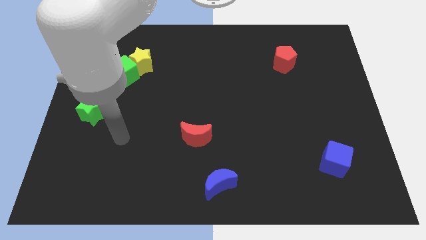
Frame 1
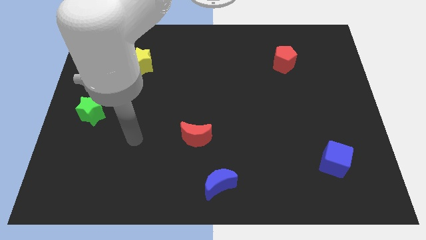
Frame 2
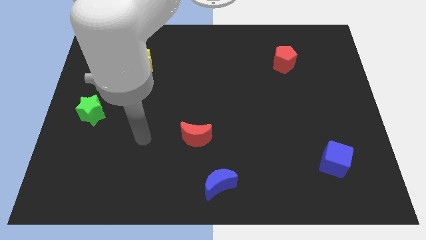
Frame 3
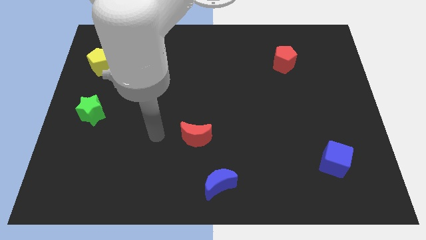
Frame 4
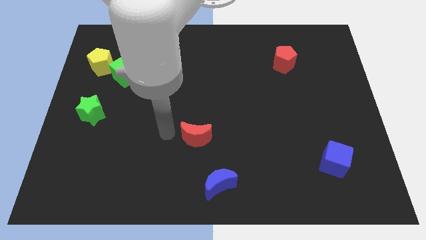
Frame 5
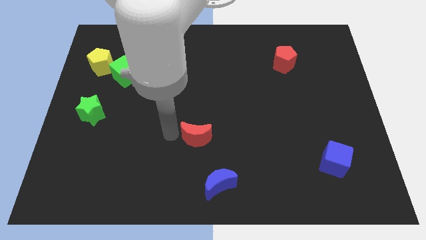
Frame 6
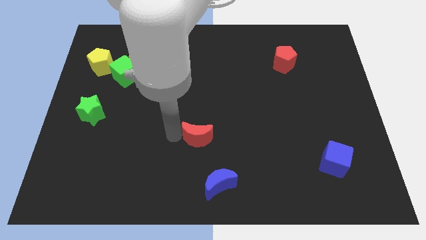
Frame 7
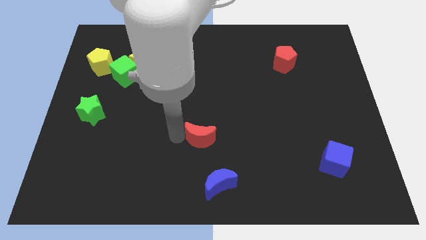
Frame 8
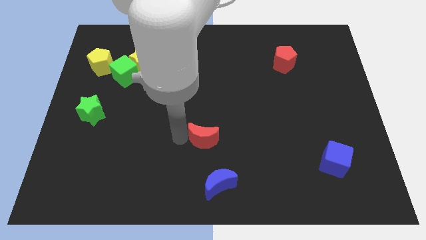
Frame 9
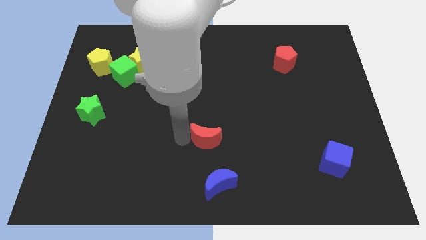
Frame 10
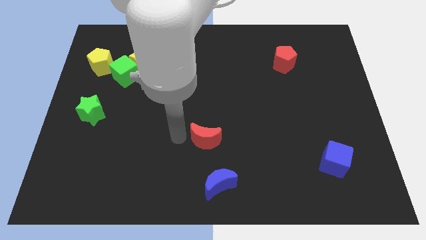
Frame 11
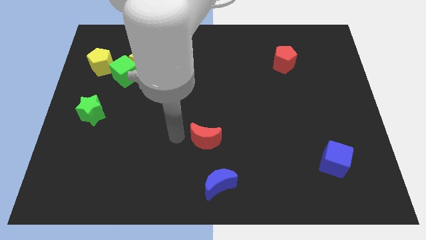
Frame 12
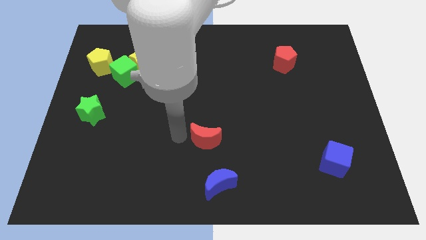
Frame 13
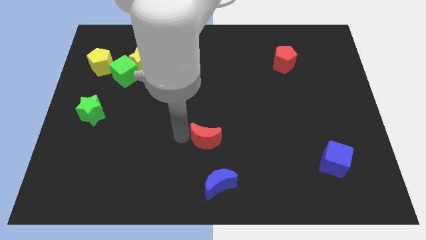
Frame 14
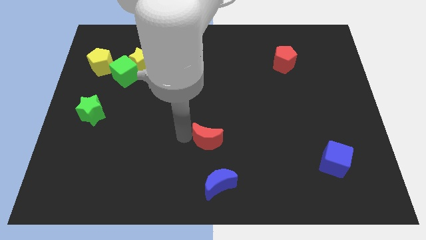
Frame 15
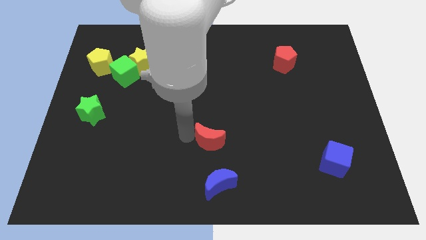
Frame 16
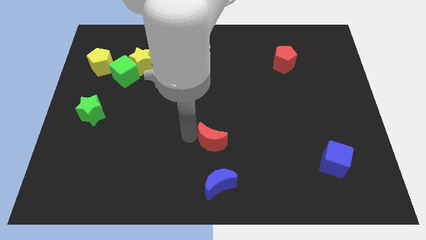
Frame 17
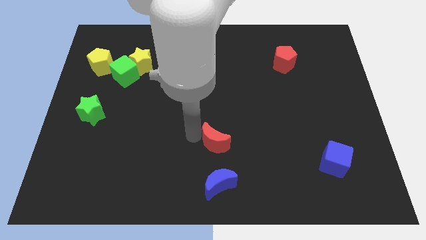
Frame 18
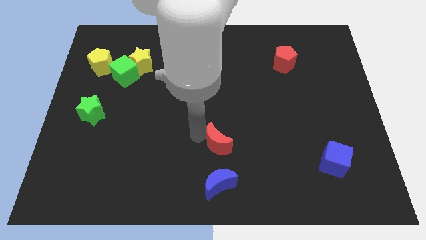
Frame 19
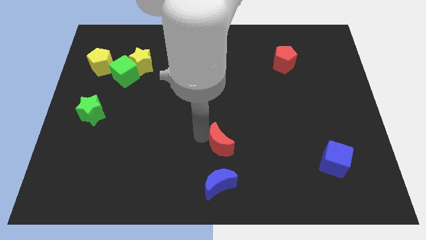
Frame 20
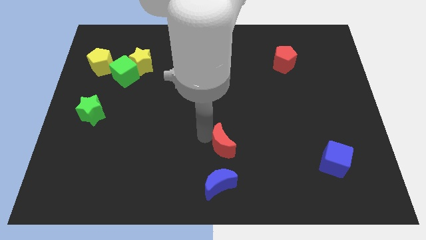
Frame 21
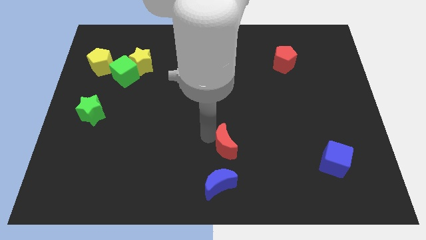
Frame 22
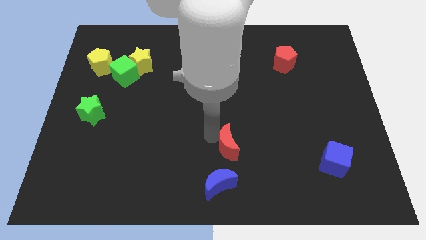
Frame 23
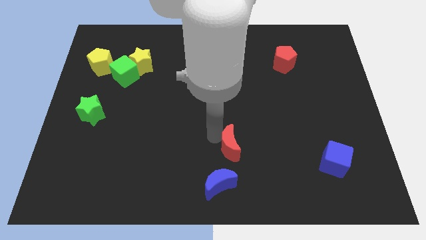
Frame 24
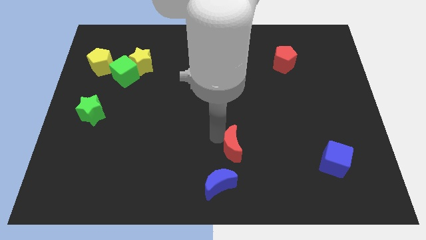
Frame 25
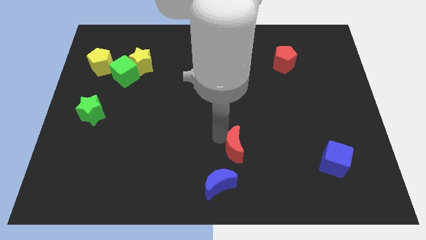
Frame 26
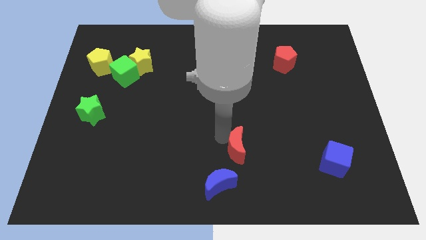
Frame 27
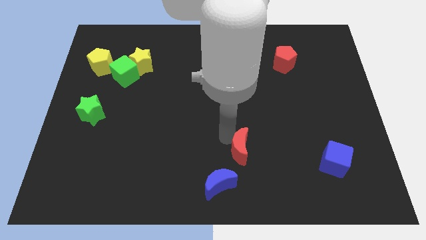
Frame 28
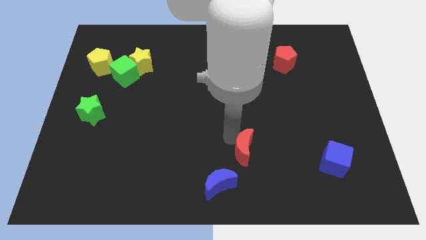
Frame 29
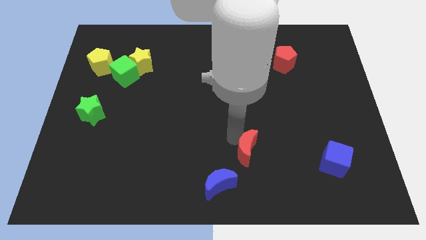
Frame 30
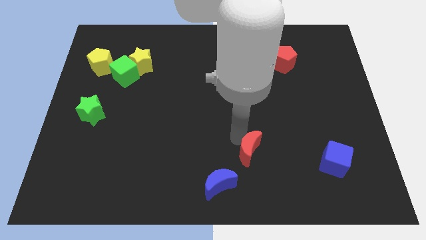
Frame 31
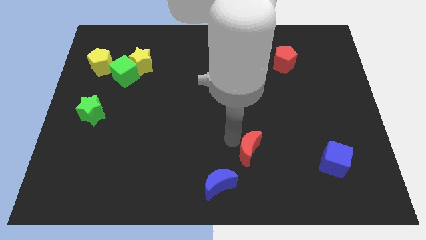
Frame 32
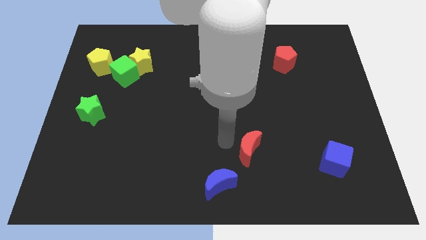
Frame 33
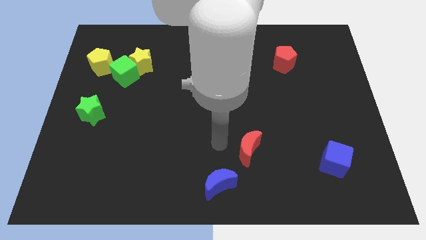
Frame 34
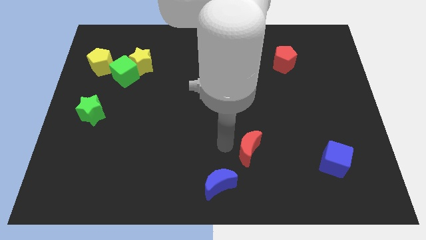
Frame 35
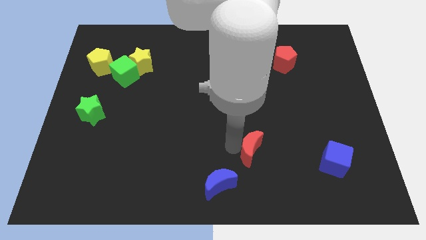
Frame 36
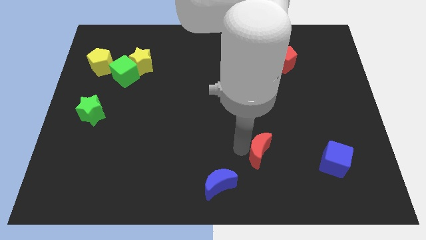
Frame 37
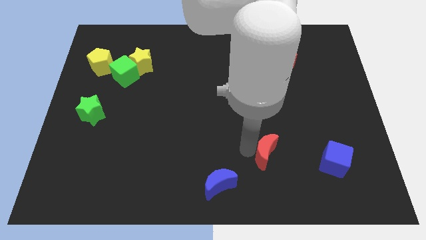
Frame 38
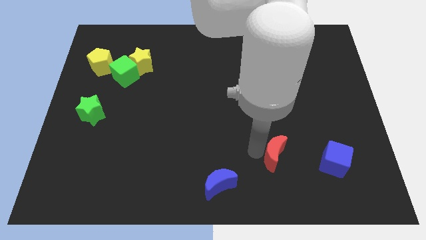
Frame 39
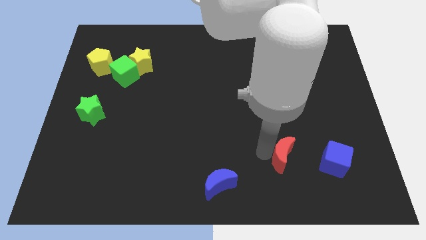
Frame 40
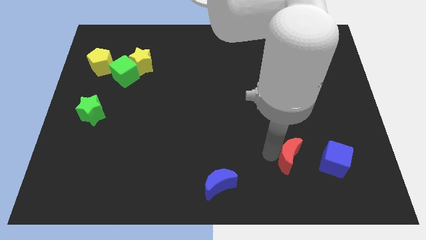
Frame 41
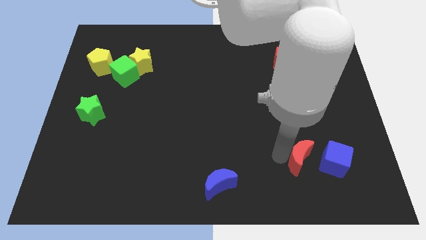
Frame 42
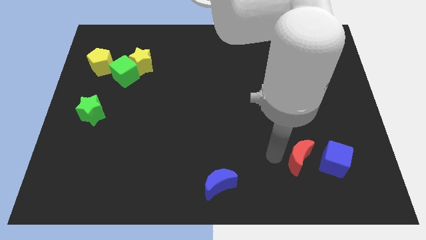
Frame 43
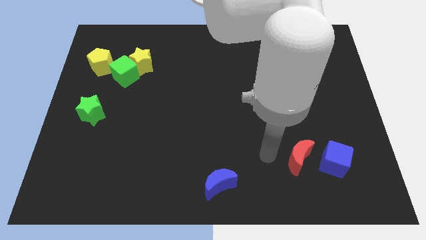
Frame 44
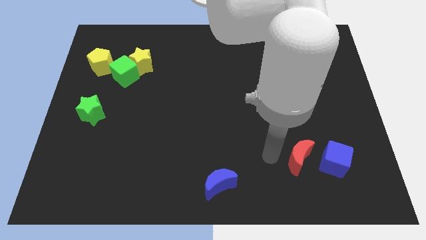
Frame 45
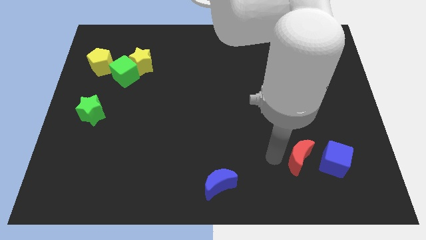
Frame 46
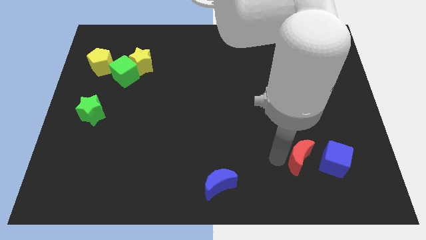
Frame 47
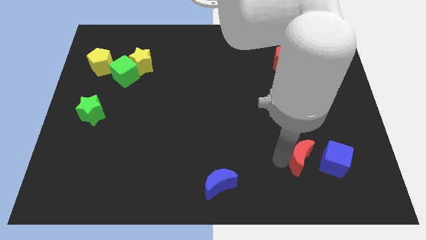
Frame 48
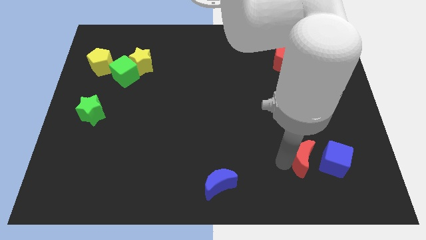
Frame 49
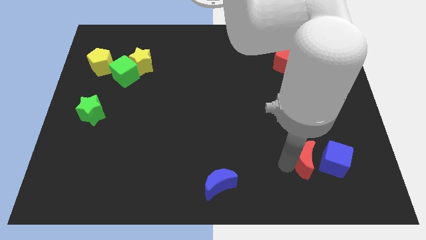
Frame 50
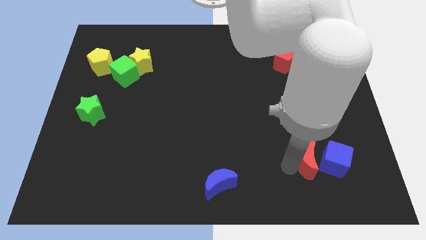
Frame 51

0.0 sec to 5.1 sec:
push the red moon to the blue cube

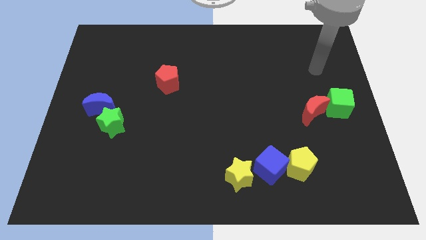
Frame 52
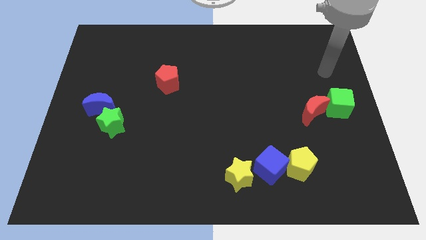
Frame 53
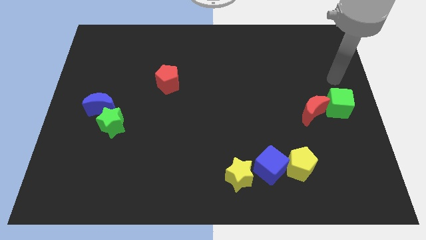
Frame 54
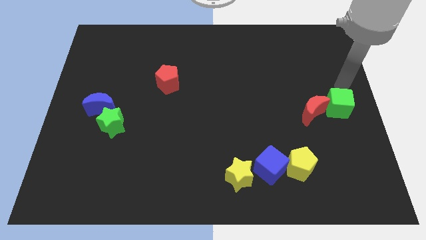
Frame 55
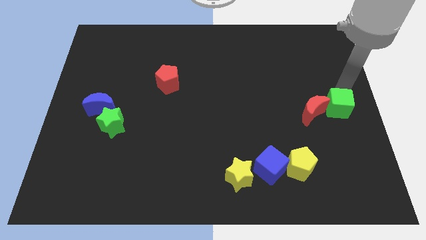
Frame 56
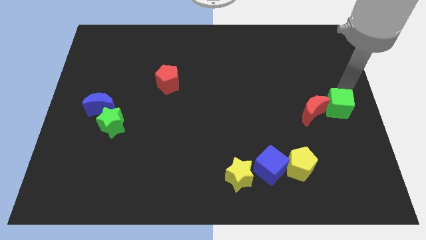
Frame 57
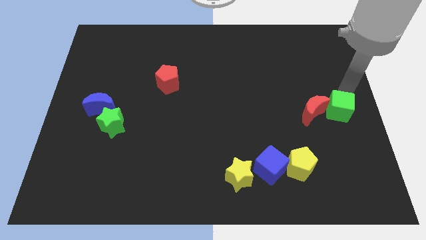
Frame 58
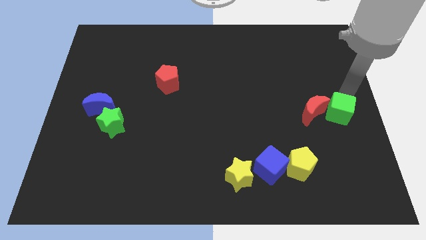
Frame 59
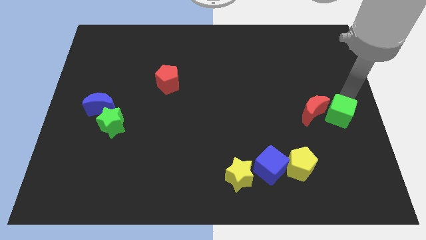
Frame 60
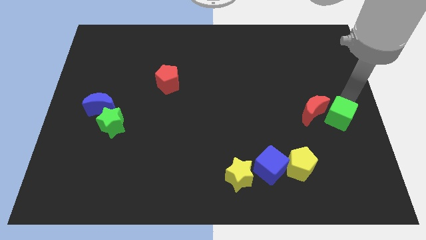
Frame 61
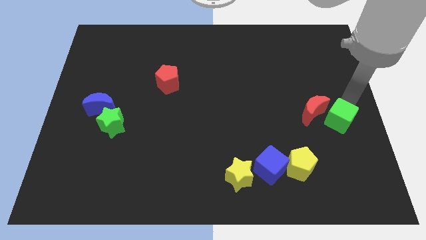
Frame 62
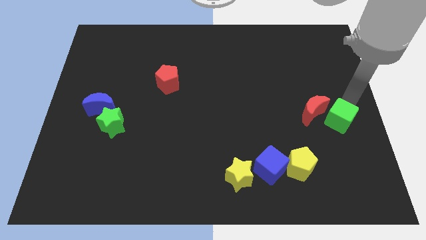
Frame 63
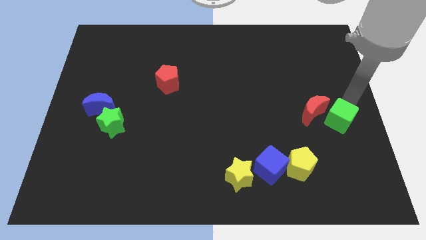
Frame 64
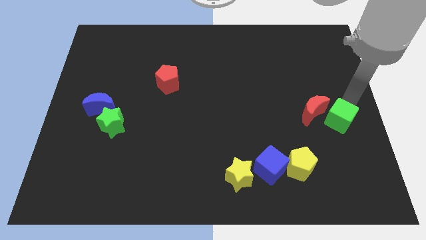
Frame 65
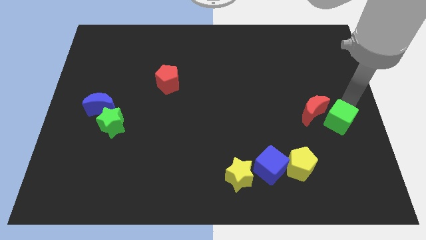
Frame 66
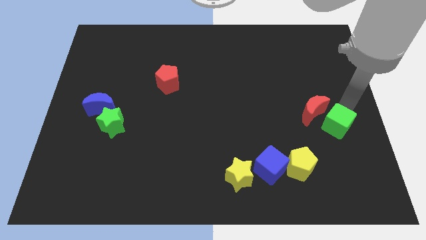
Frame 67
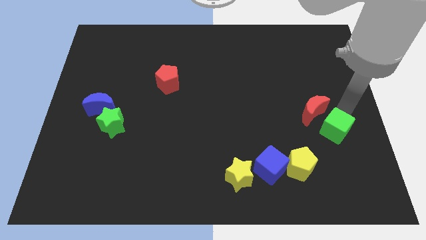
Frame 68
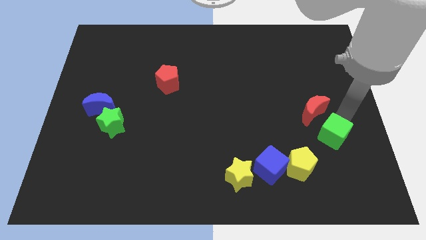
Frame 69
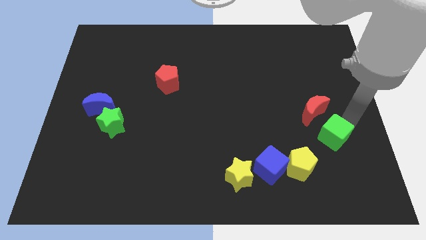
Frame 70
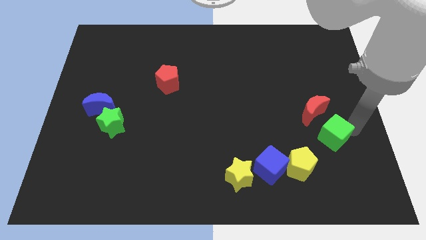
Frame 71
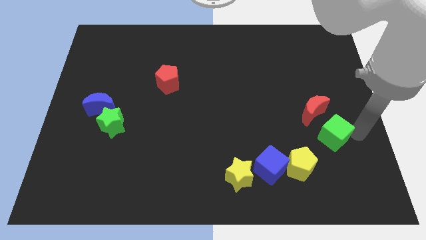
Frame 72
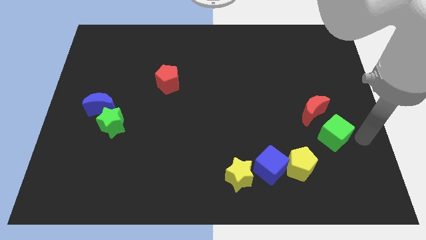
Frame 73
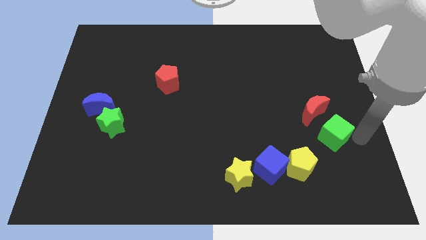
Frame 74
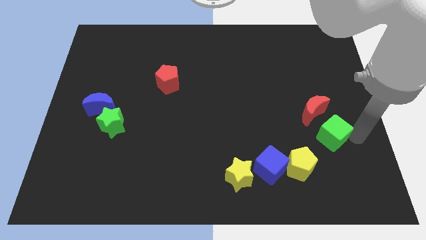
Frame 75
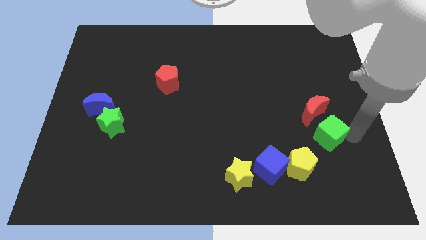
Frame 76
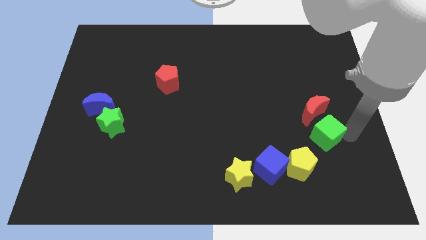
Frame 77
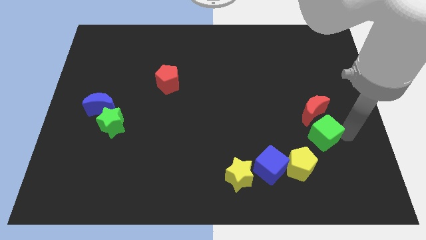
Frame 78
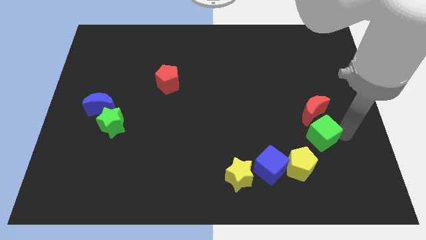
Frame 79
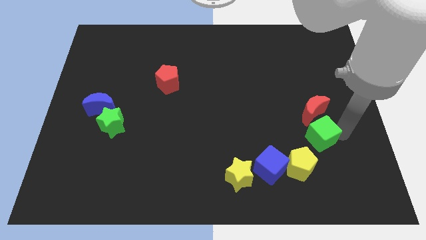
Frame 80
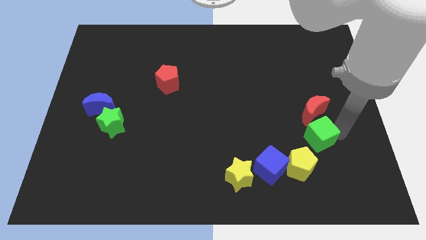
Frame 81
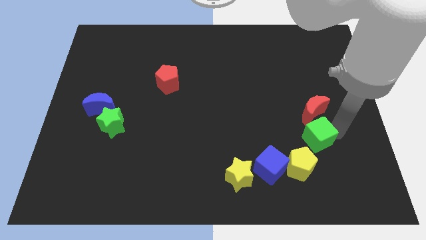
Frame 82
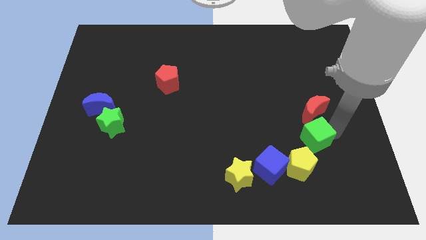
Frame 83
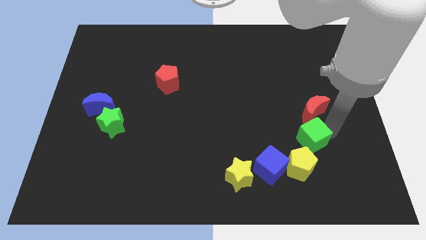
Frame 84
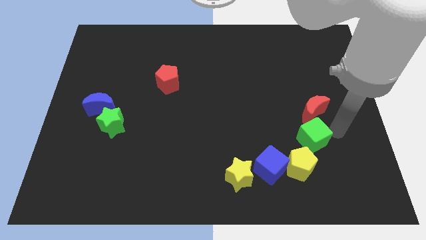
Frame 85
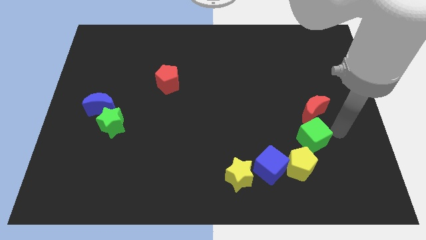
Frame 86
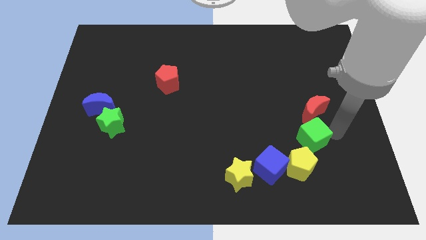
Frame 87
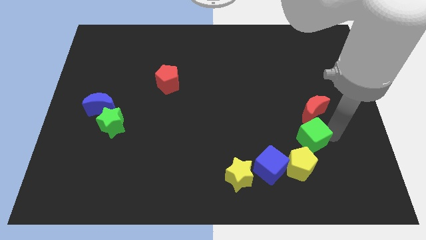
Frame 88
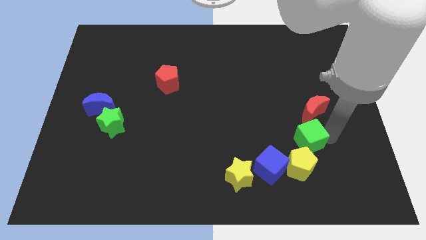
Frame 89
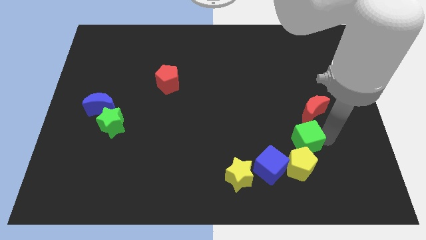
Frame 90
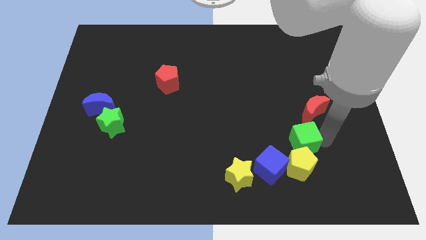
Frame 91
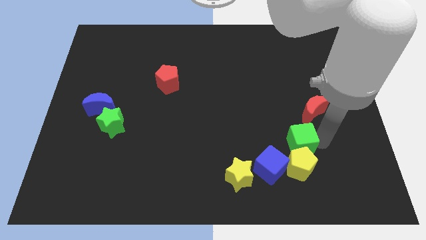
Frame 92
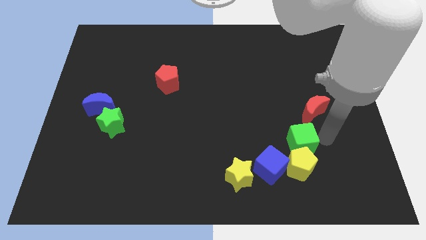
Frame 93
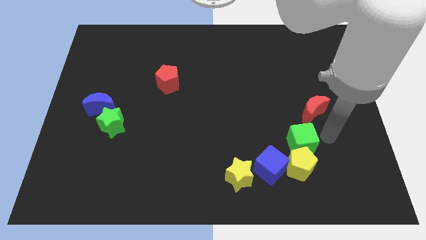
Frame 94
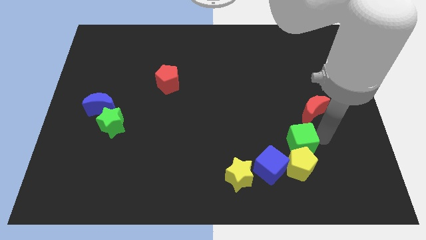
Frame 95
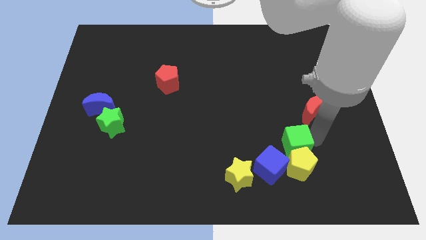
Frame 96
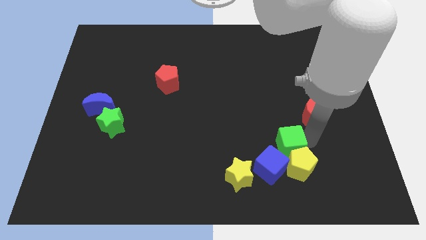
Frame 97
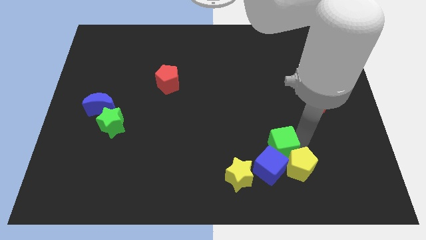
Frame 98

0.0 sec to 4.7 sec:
move the green cube next to the blue cube
